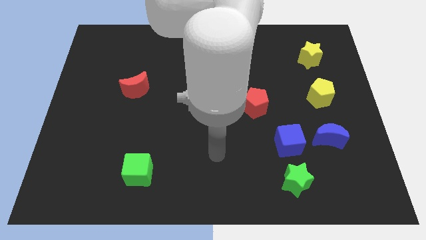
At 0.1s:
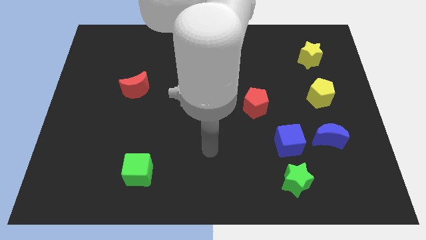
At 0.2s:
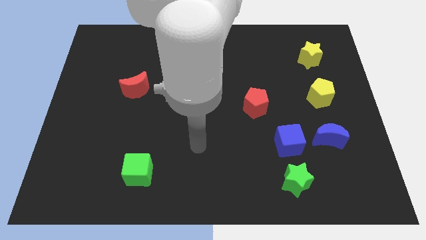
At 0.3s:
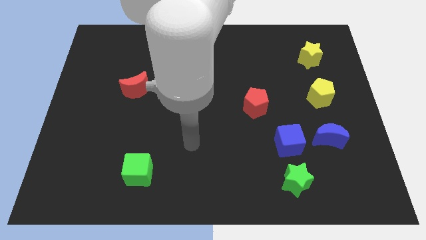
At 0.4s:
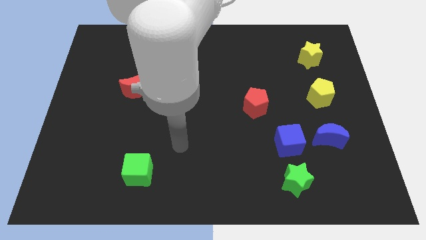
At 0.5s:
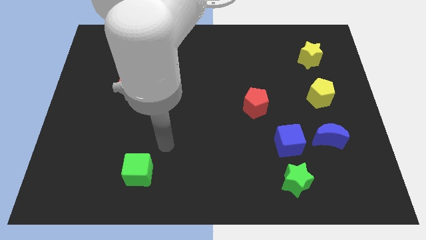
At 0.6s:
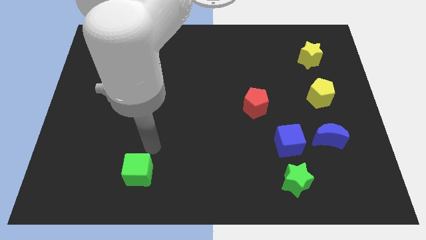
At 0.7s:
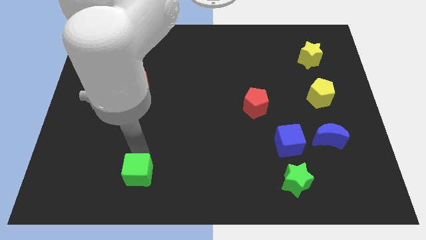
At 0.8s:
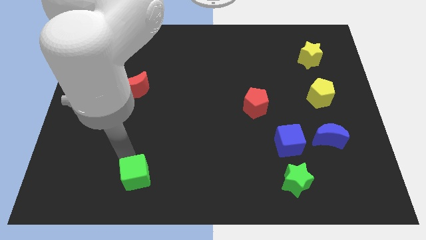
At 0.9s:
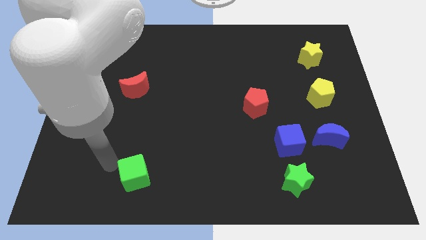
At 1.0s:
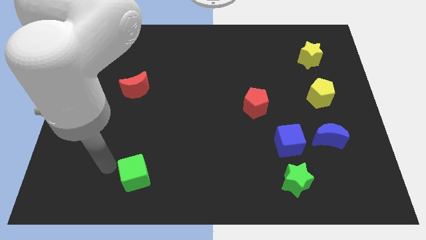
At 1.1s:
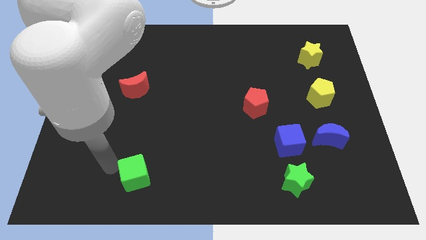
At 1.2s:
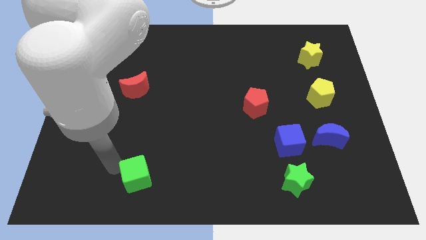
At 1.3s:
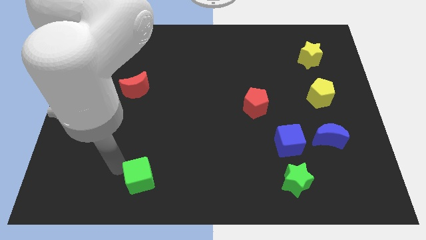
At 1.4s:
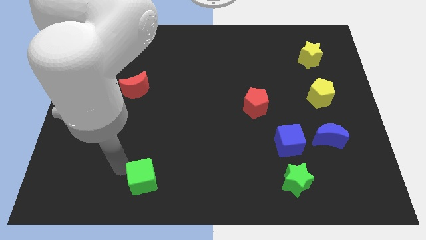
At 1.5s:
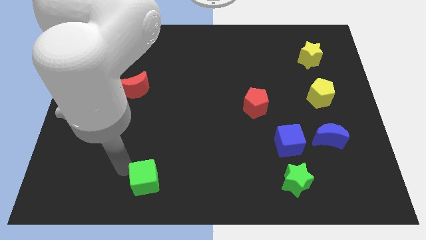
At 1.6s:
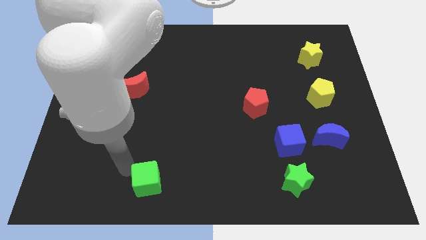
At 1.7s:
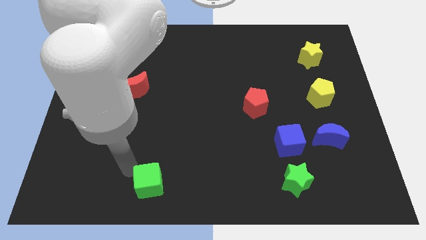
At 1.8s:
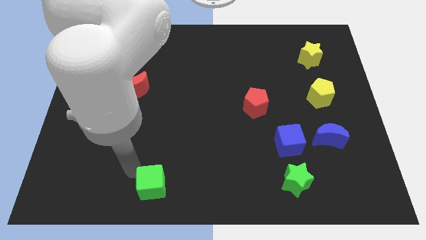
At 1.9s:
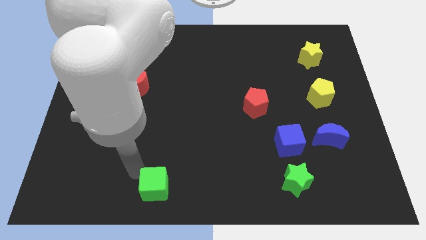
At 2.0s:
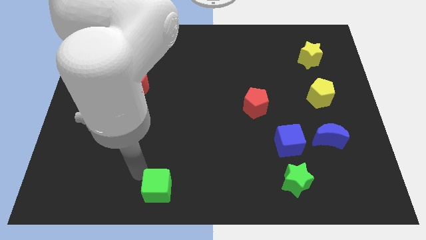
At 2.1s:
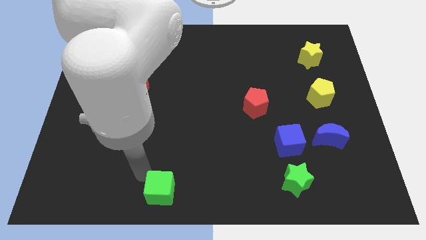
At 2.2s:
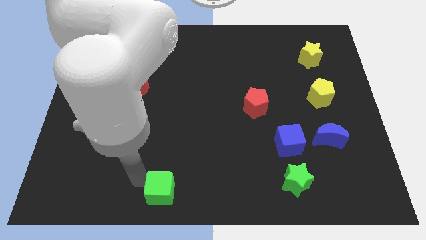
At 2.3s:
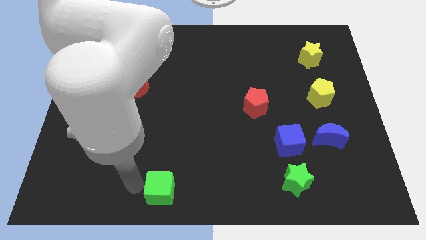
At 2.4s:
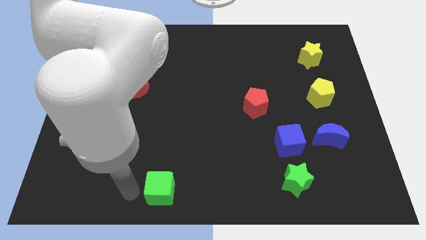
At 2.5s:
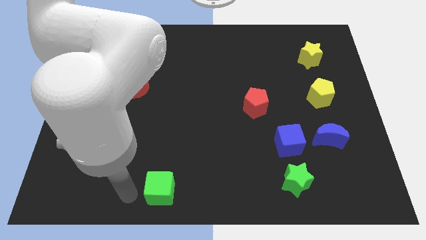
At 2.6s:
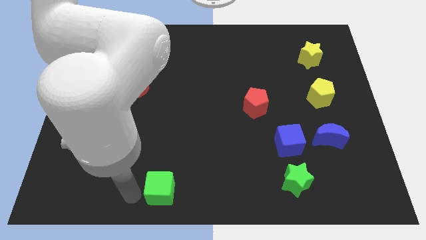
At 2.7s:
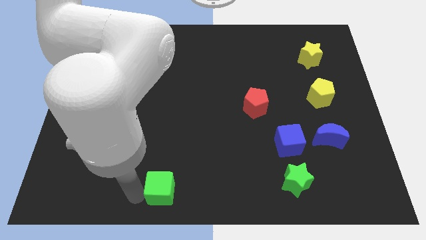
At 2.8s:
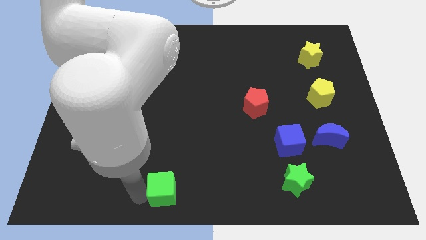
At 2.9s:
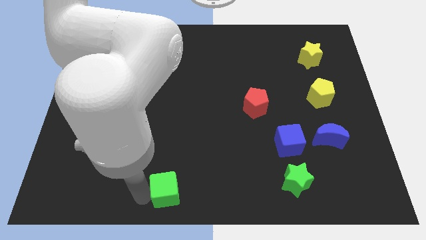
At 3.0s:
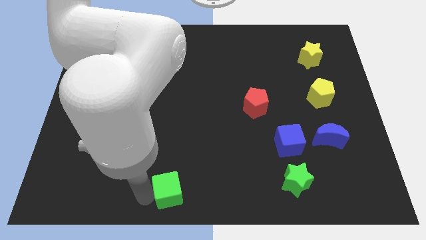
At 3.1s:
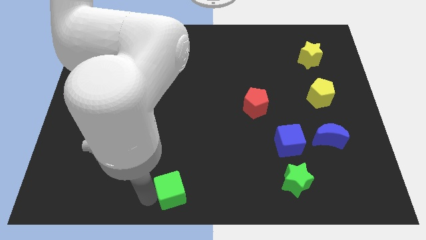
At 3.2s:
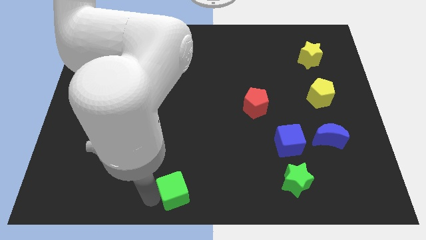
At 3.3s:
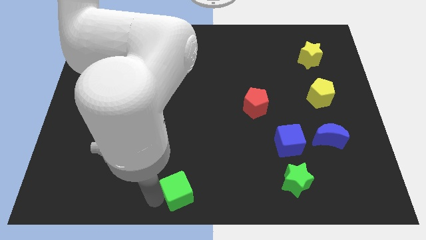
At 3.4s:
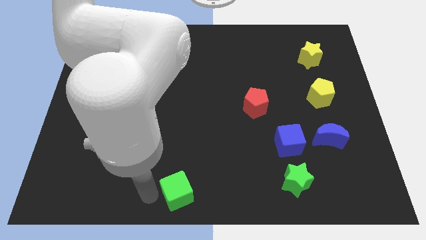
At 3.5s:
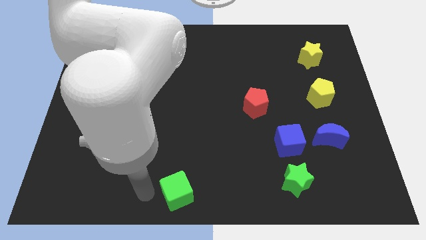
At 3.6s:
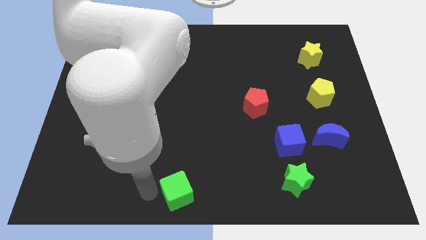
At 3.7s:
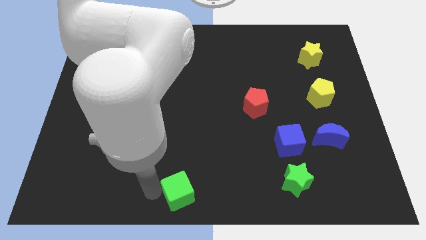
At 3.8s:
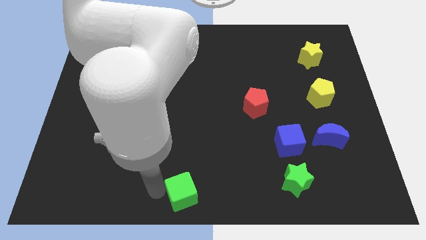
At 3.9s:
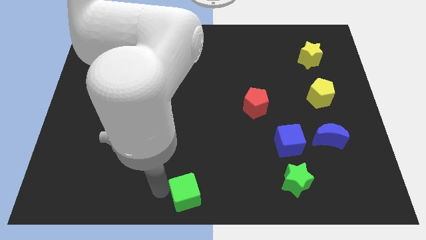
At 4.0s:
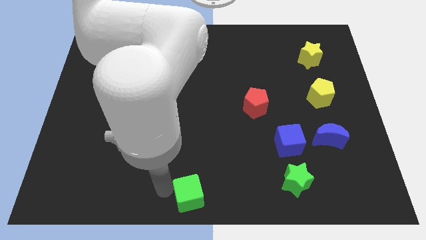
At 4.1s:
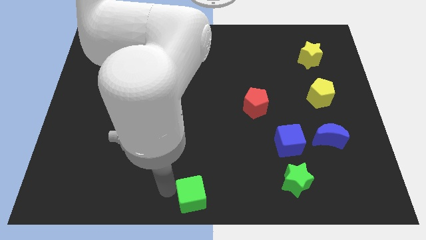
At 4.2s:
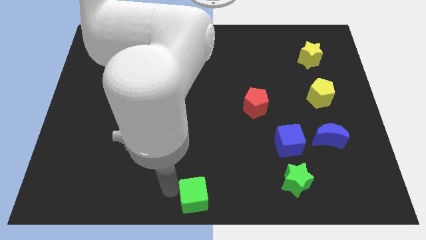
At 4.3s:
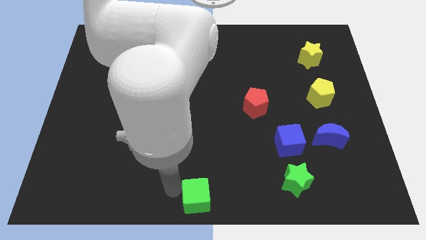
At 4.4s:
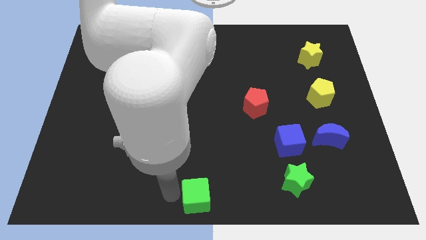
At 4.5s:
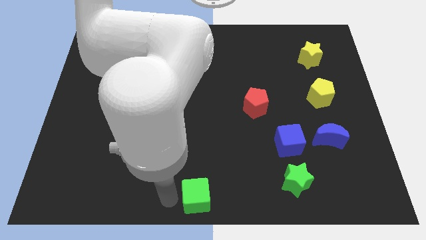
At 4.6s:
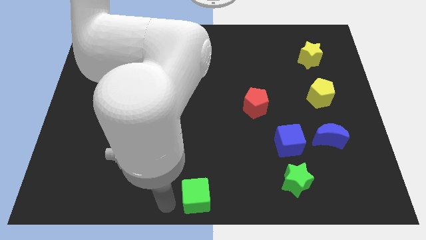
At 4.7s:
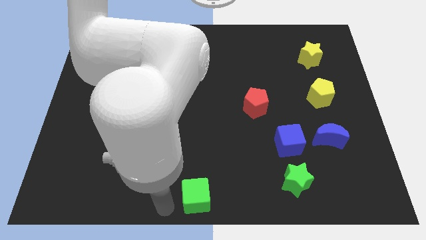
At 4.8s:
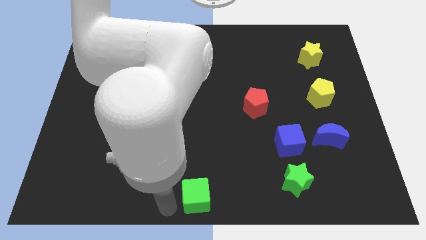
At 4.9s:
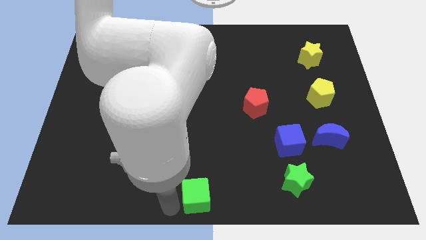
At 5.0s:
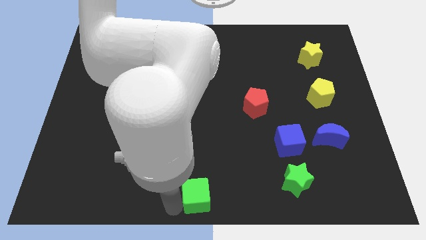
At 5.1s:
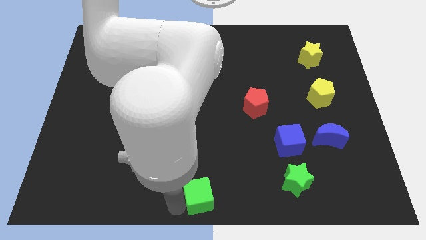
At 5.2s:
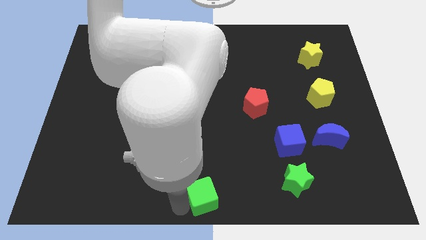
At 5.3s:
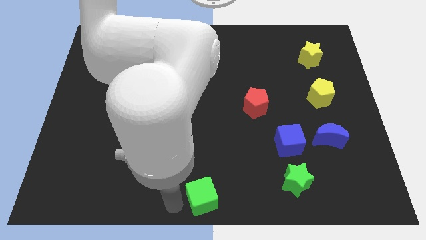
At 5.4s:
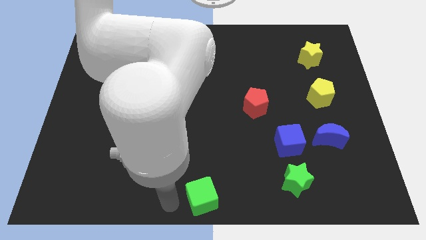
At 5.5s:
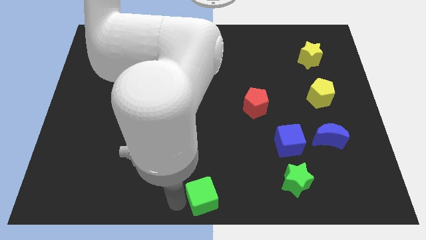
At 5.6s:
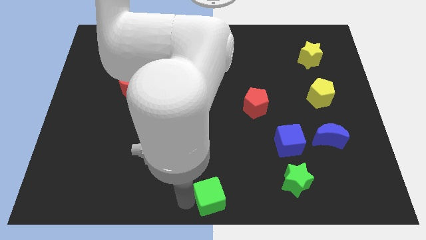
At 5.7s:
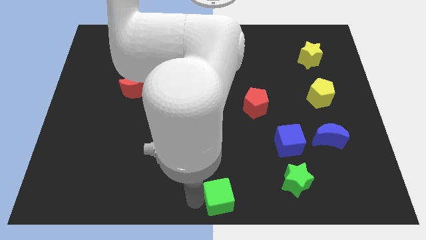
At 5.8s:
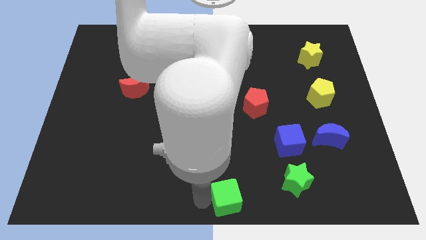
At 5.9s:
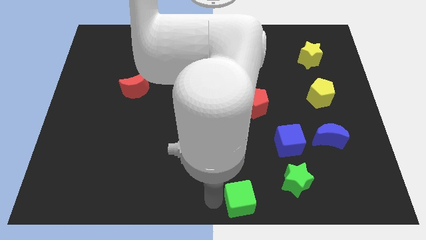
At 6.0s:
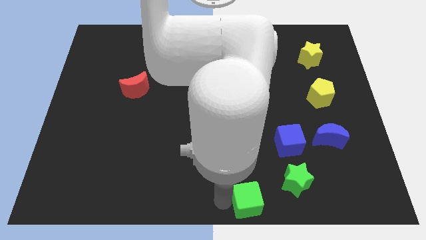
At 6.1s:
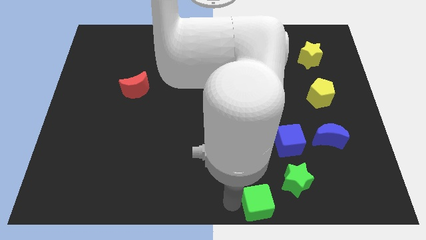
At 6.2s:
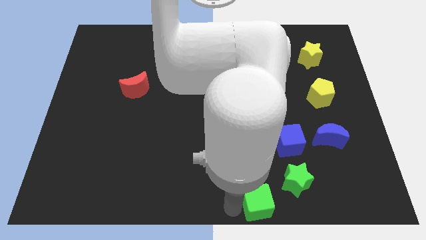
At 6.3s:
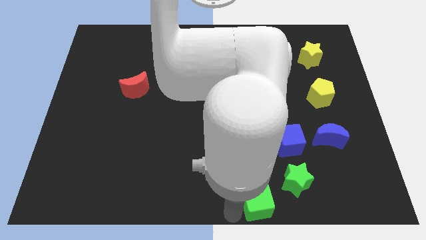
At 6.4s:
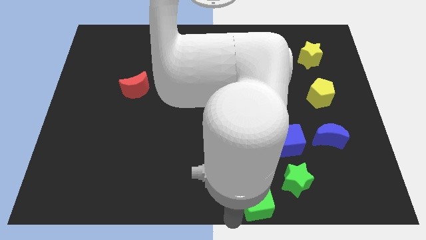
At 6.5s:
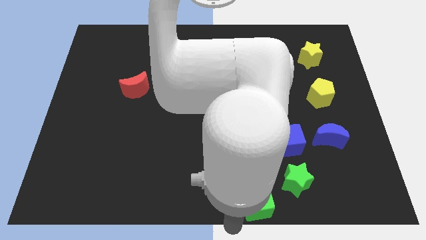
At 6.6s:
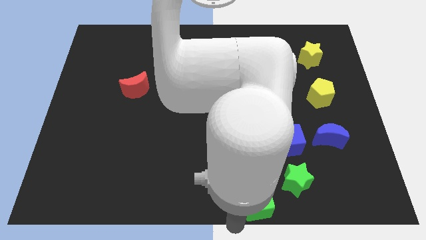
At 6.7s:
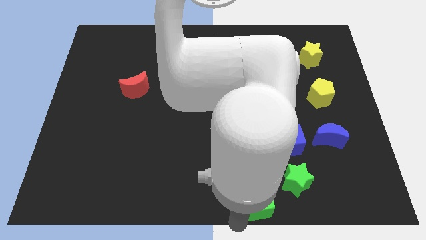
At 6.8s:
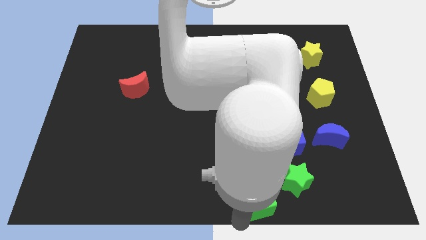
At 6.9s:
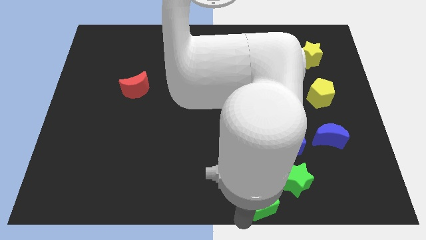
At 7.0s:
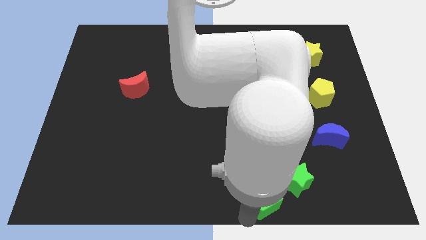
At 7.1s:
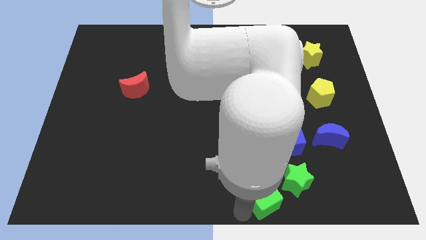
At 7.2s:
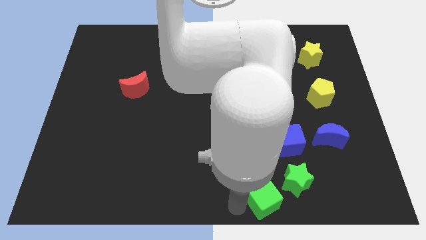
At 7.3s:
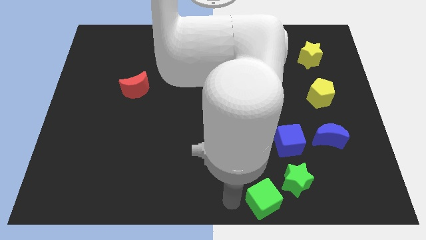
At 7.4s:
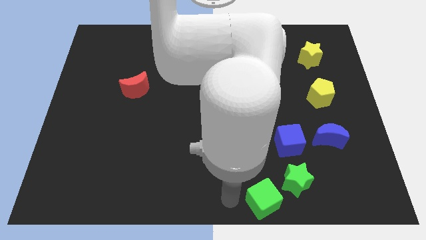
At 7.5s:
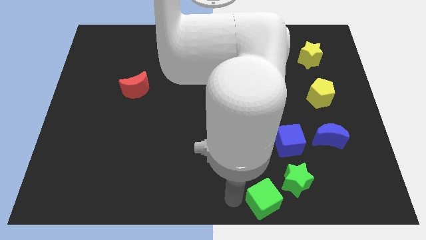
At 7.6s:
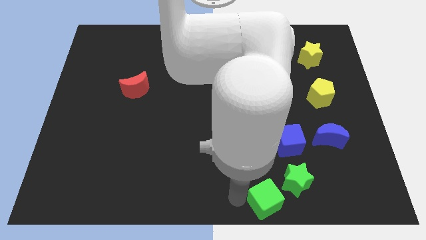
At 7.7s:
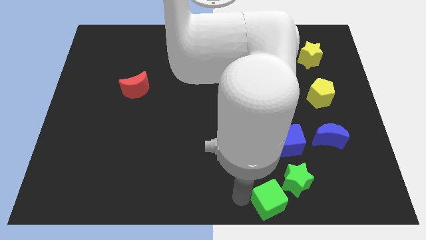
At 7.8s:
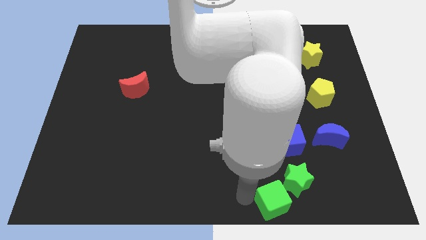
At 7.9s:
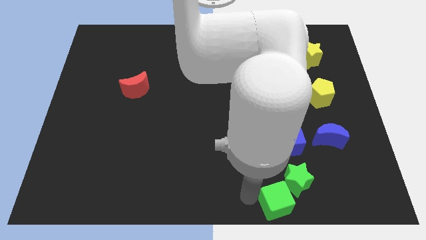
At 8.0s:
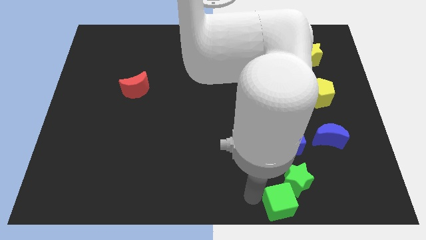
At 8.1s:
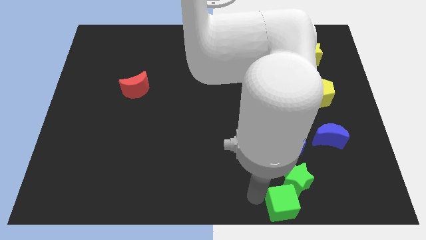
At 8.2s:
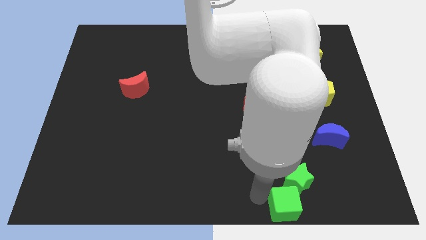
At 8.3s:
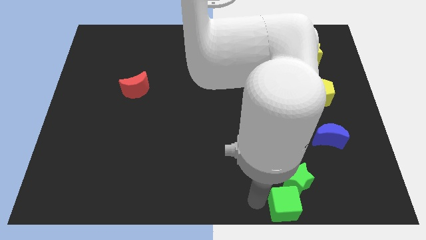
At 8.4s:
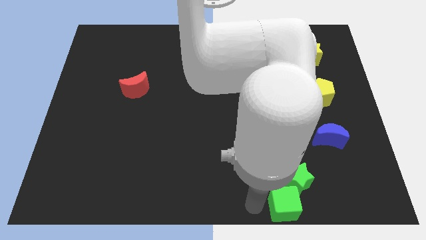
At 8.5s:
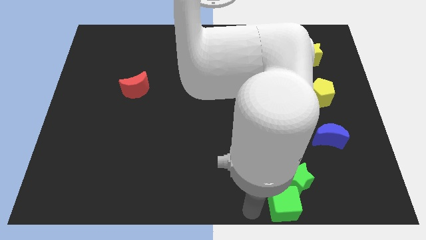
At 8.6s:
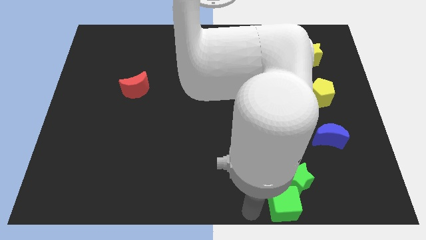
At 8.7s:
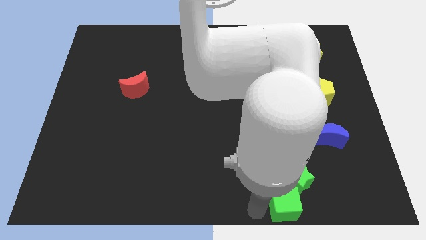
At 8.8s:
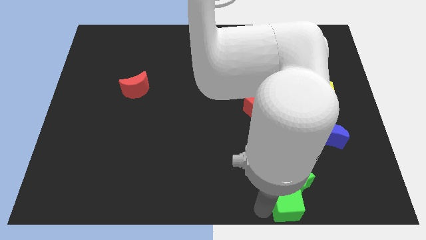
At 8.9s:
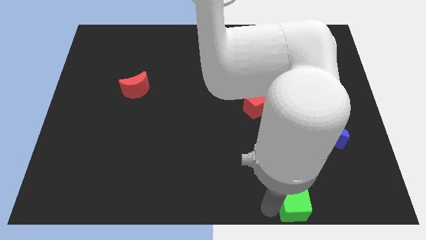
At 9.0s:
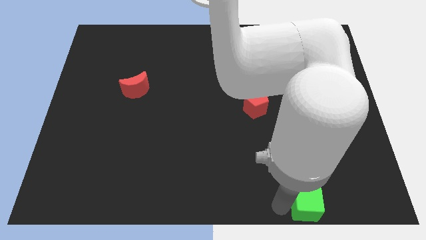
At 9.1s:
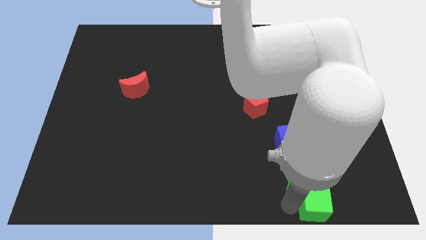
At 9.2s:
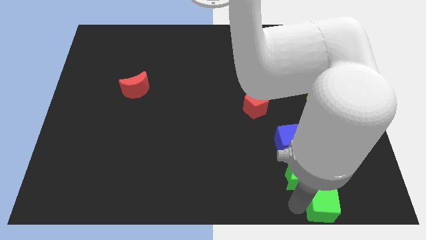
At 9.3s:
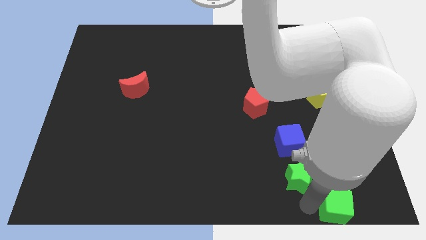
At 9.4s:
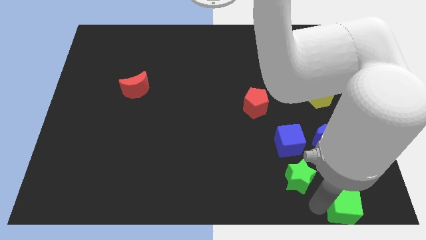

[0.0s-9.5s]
slide the green cube to the bottom right of the board
